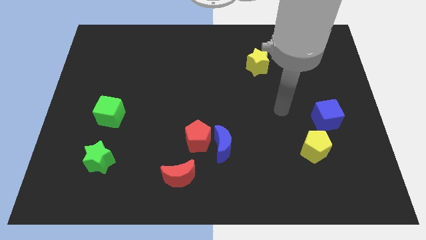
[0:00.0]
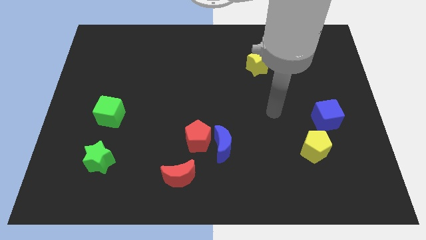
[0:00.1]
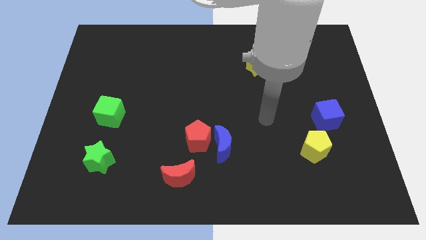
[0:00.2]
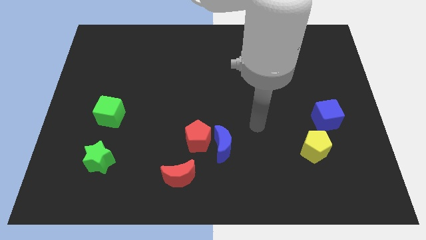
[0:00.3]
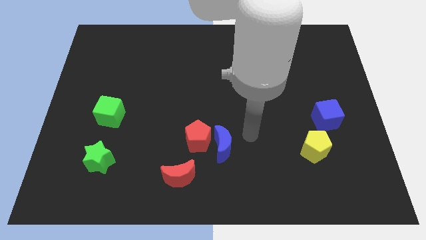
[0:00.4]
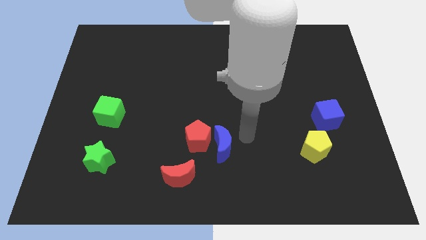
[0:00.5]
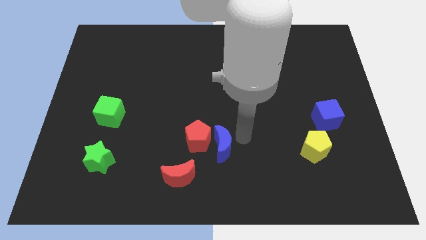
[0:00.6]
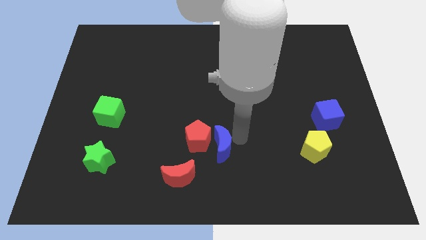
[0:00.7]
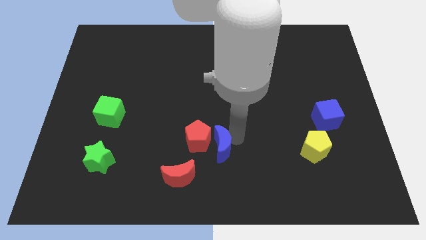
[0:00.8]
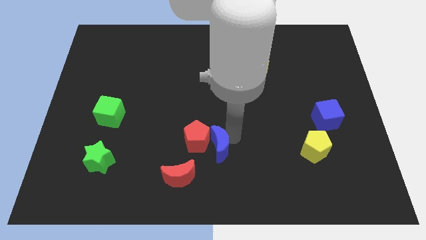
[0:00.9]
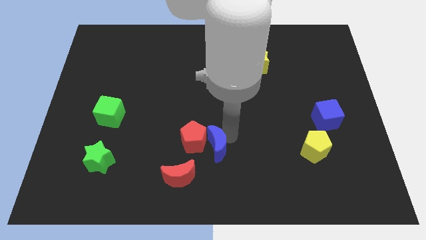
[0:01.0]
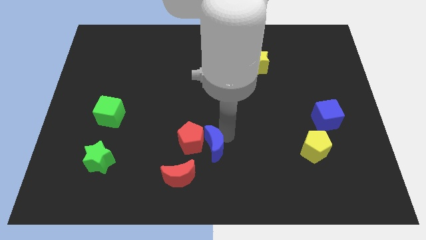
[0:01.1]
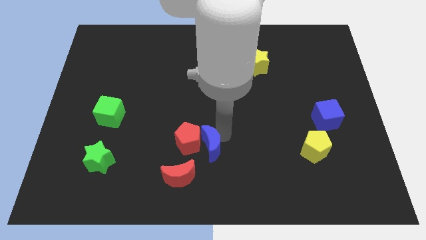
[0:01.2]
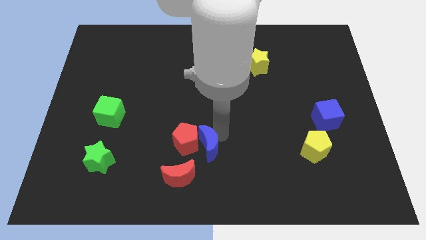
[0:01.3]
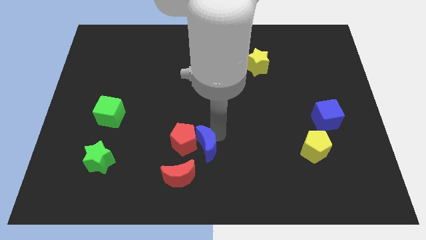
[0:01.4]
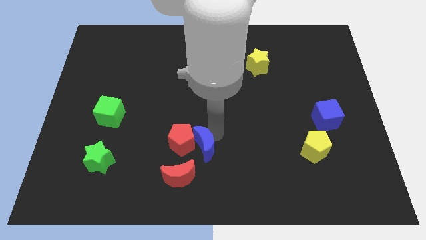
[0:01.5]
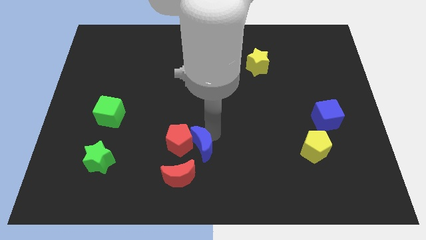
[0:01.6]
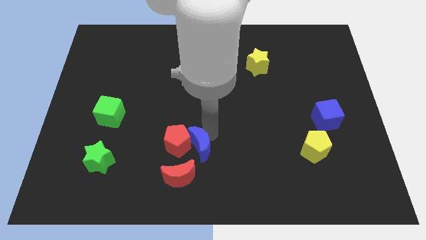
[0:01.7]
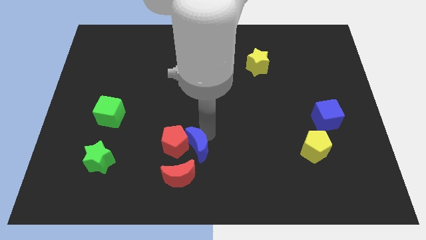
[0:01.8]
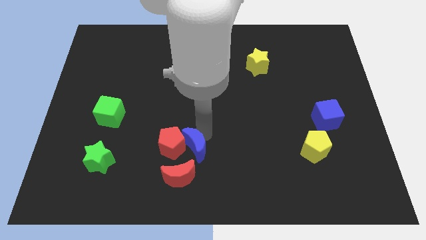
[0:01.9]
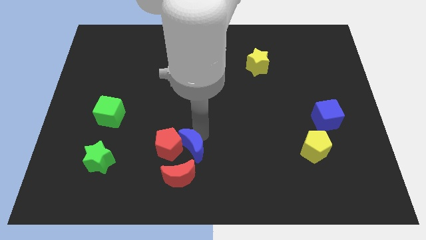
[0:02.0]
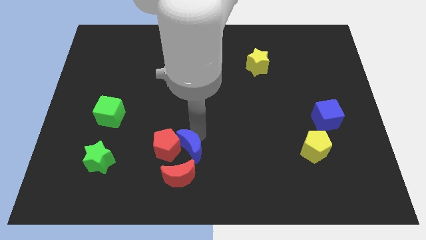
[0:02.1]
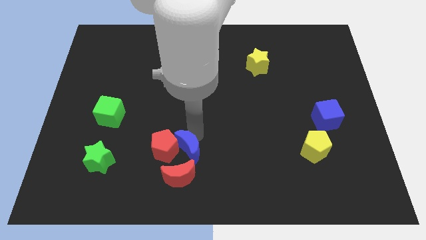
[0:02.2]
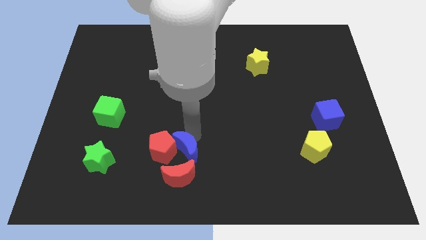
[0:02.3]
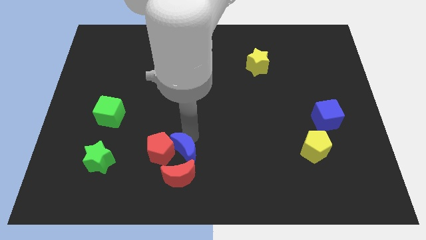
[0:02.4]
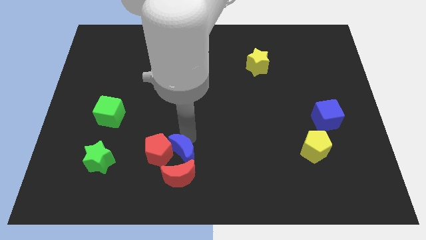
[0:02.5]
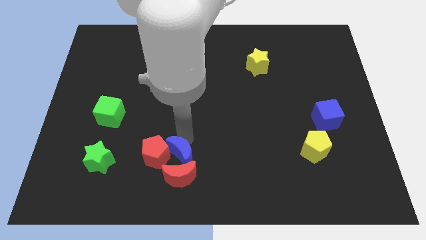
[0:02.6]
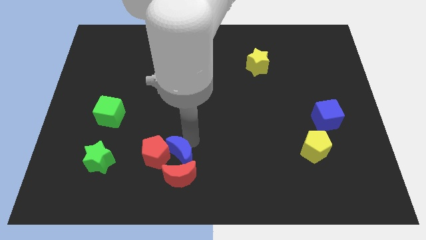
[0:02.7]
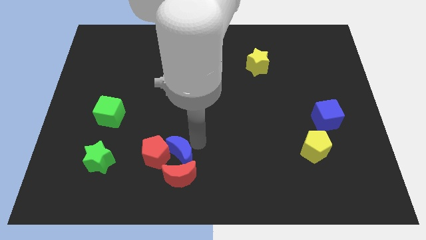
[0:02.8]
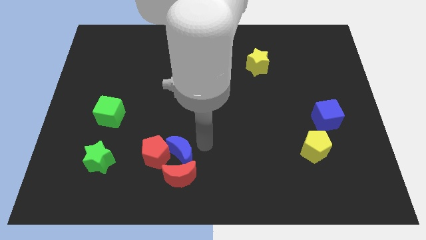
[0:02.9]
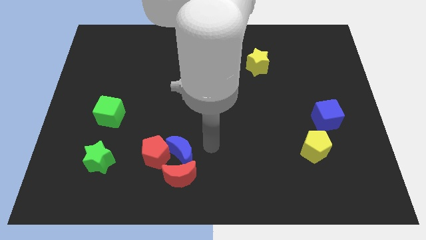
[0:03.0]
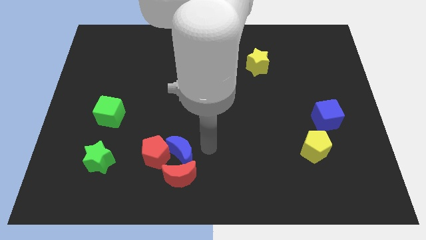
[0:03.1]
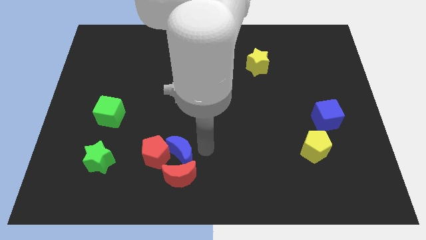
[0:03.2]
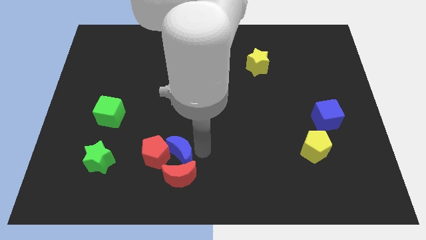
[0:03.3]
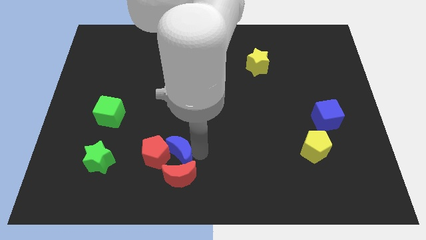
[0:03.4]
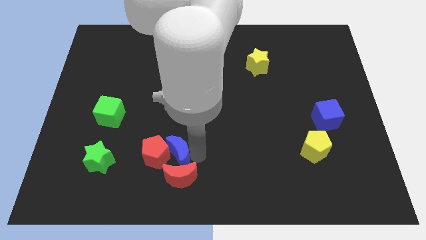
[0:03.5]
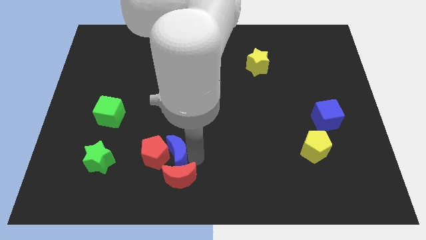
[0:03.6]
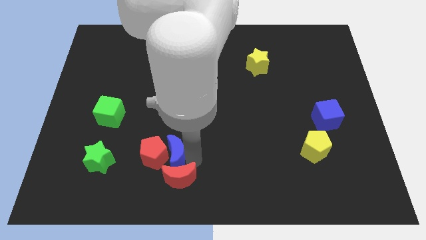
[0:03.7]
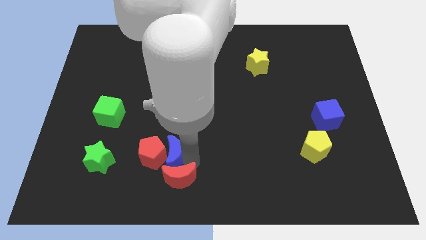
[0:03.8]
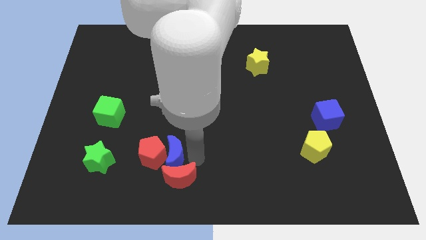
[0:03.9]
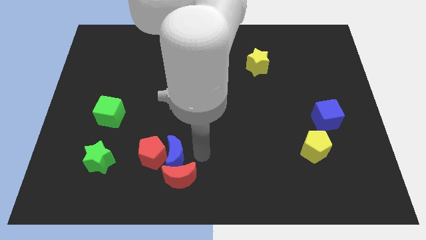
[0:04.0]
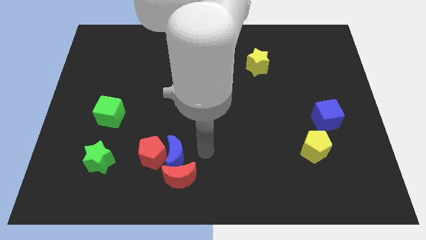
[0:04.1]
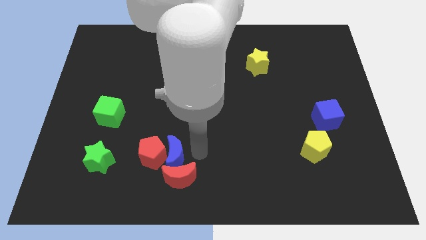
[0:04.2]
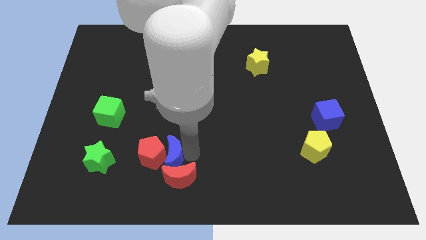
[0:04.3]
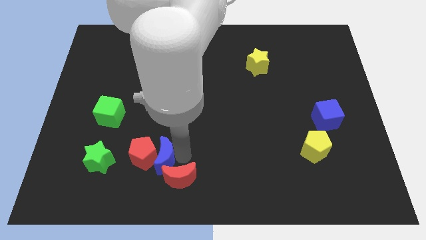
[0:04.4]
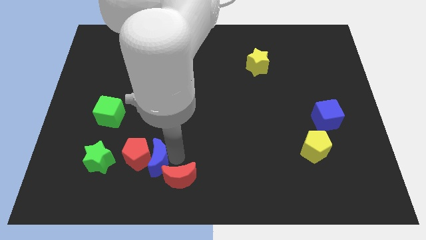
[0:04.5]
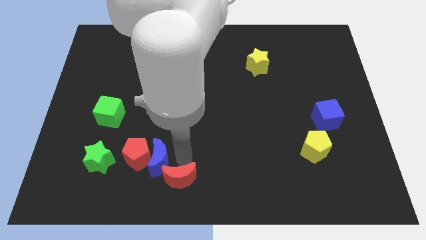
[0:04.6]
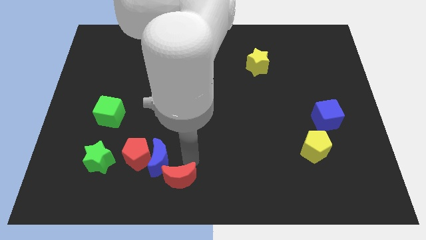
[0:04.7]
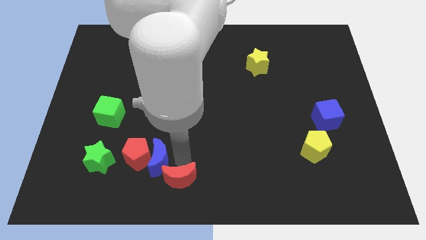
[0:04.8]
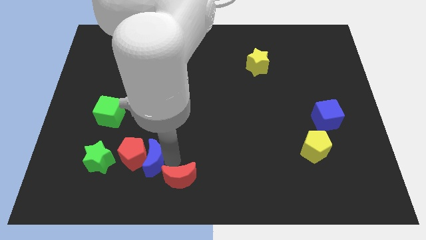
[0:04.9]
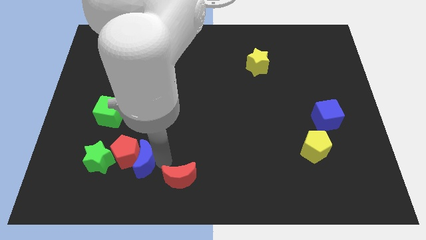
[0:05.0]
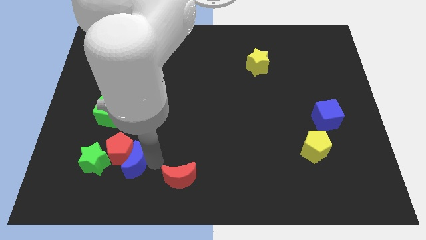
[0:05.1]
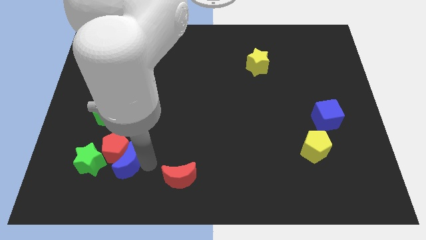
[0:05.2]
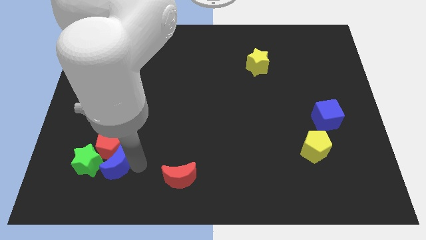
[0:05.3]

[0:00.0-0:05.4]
move the blue moon towards the green star

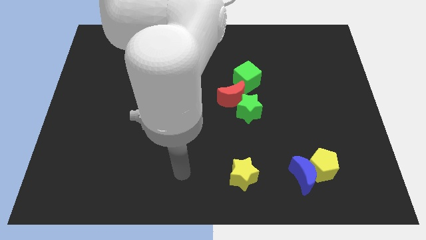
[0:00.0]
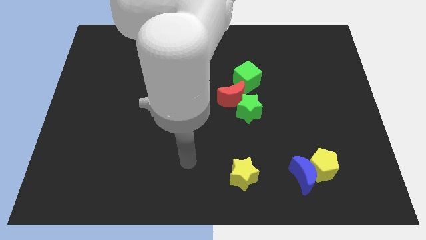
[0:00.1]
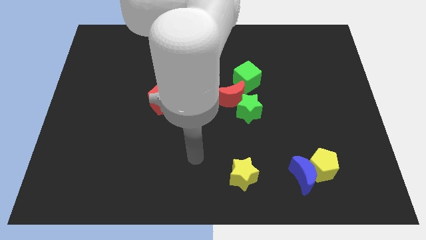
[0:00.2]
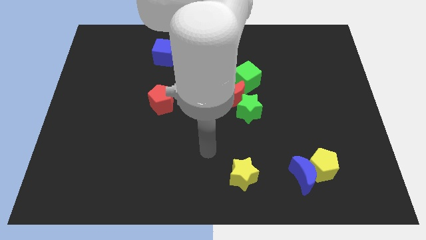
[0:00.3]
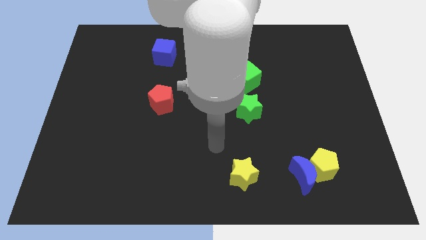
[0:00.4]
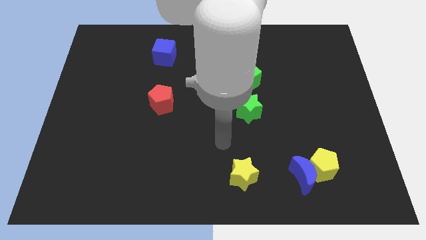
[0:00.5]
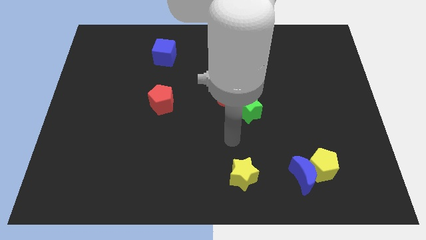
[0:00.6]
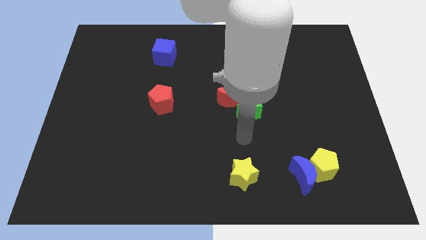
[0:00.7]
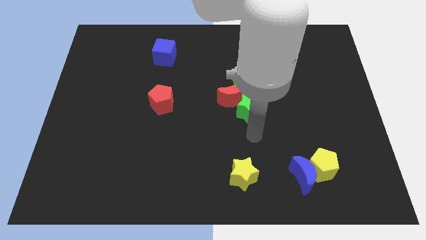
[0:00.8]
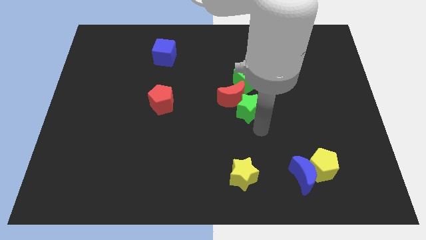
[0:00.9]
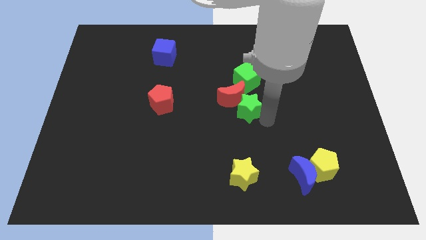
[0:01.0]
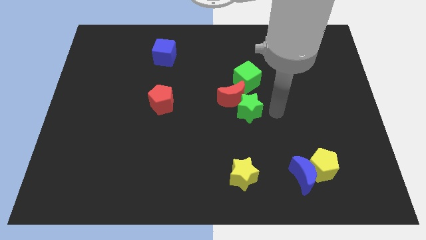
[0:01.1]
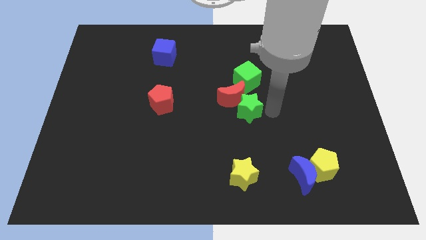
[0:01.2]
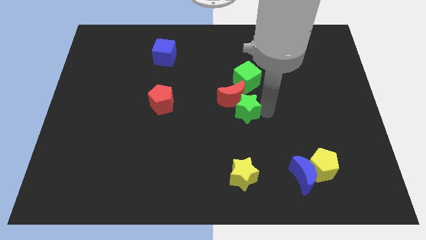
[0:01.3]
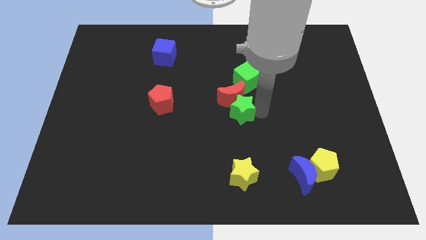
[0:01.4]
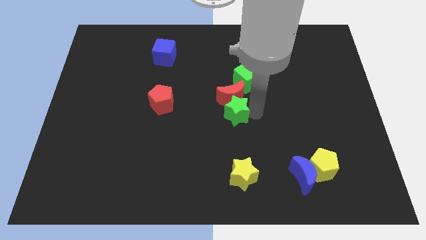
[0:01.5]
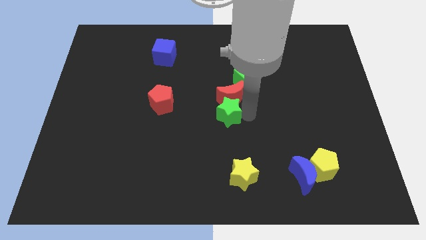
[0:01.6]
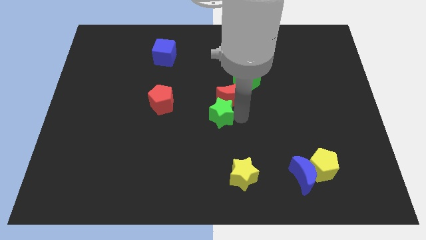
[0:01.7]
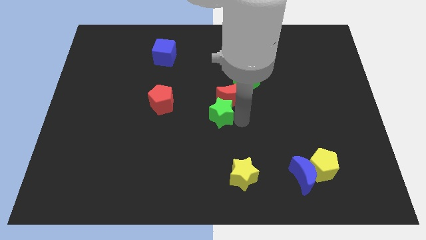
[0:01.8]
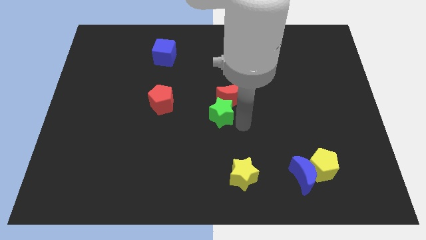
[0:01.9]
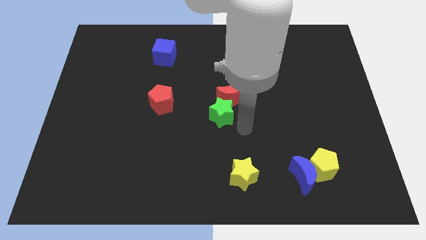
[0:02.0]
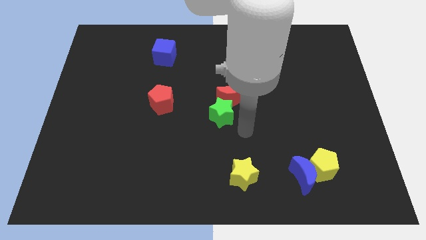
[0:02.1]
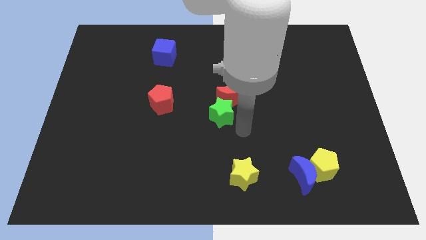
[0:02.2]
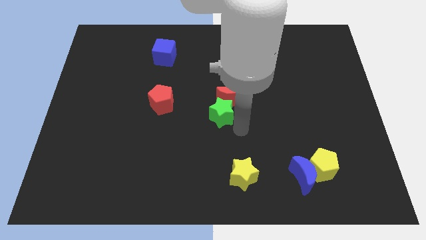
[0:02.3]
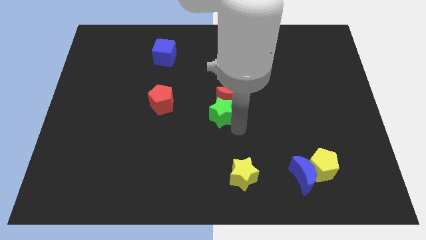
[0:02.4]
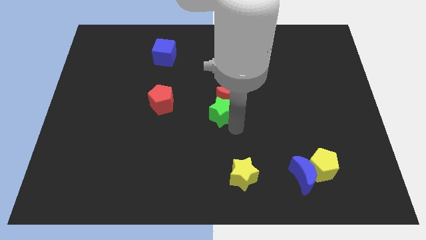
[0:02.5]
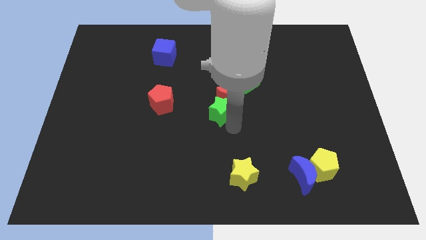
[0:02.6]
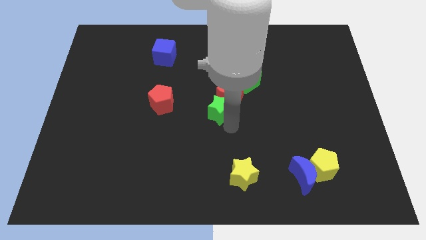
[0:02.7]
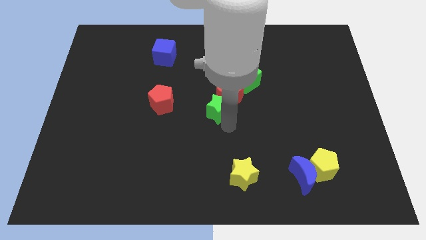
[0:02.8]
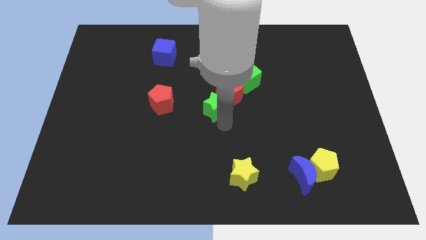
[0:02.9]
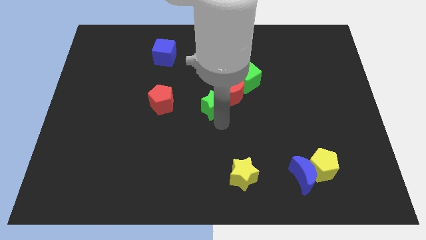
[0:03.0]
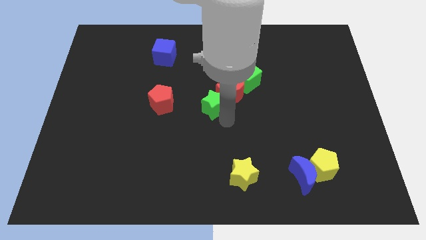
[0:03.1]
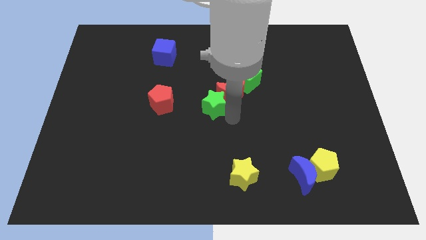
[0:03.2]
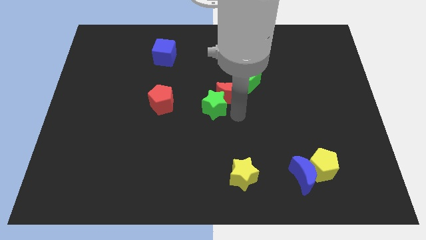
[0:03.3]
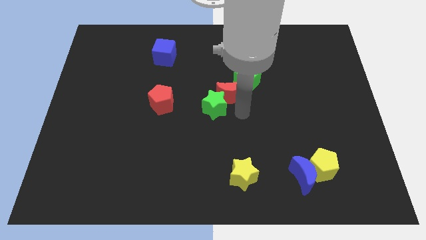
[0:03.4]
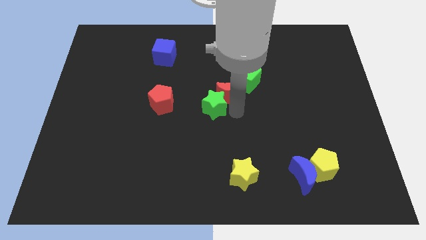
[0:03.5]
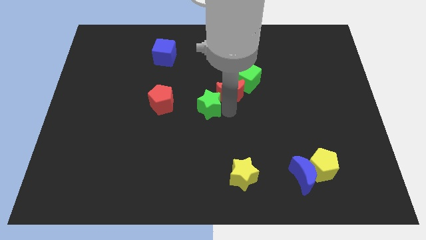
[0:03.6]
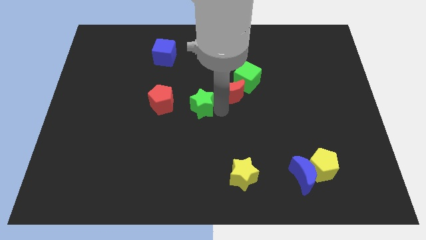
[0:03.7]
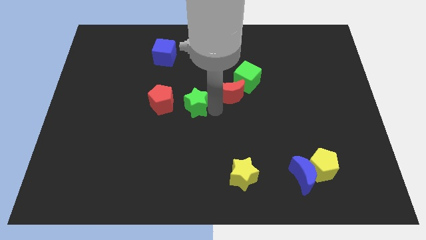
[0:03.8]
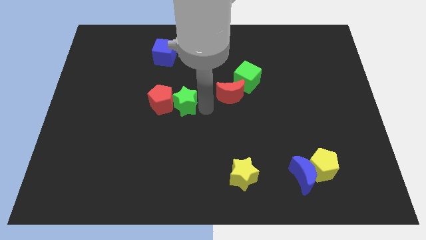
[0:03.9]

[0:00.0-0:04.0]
put the green star to the red pentagon
